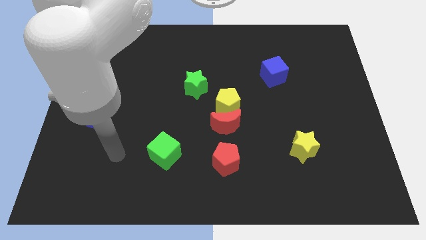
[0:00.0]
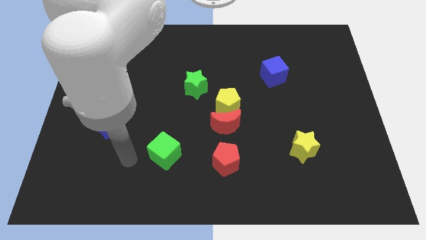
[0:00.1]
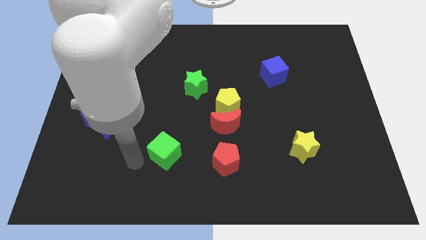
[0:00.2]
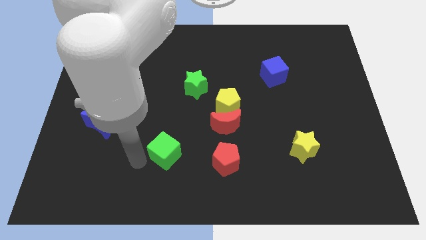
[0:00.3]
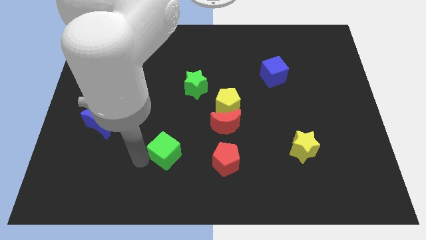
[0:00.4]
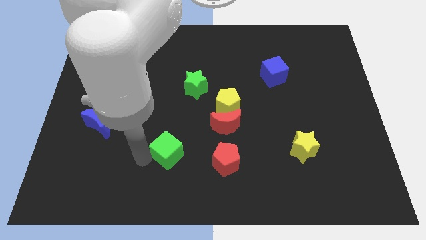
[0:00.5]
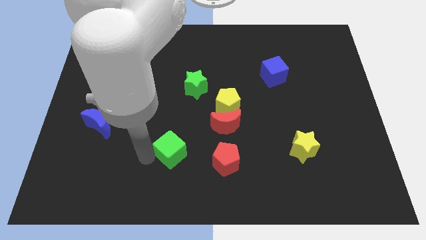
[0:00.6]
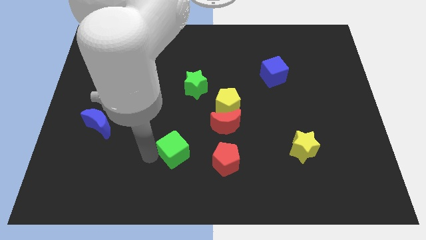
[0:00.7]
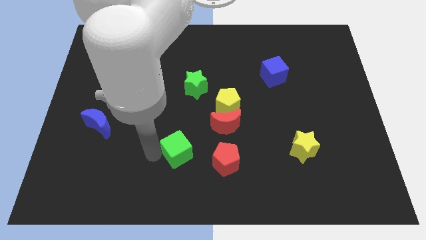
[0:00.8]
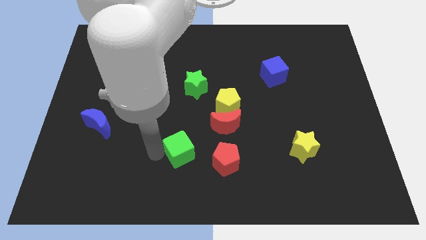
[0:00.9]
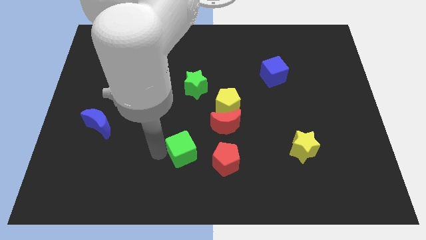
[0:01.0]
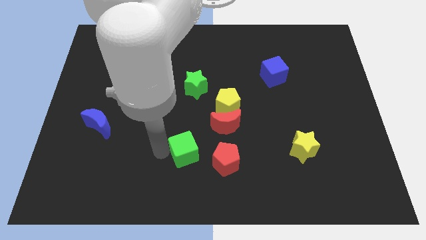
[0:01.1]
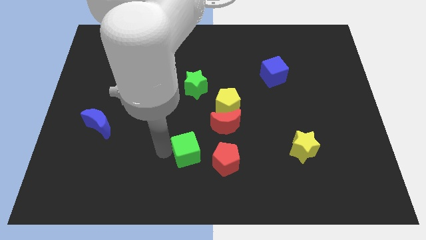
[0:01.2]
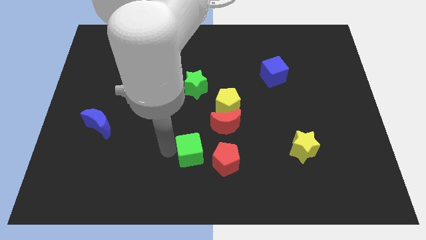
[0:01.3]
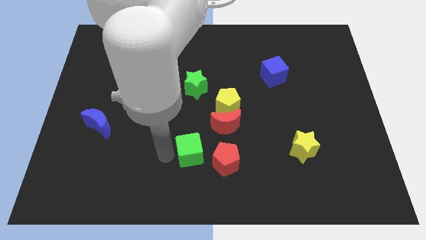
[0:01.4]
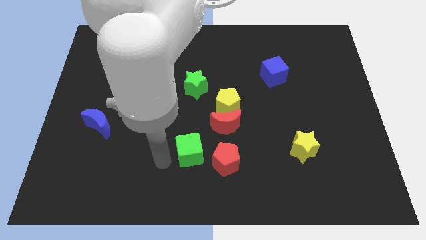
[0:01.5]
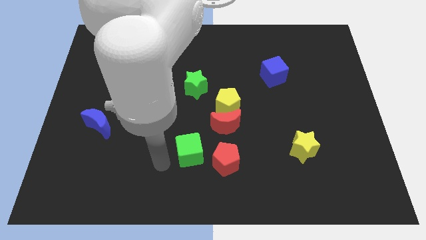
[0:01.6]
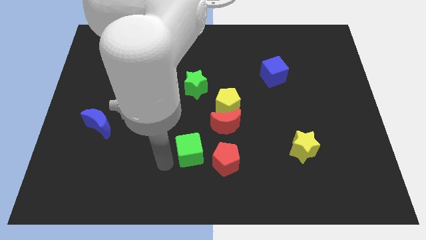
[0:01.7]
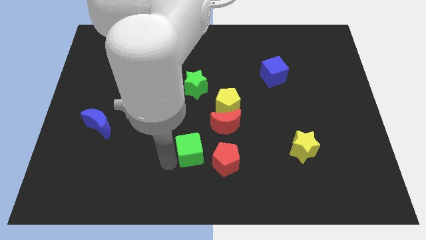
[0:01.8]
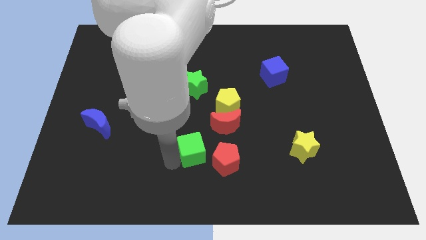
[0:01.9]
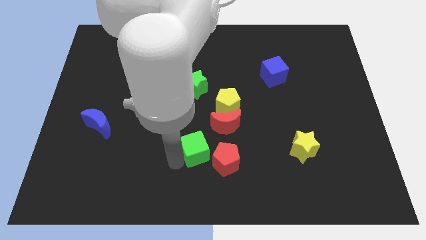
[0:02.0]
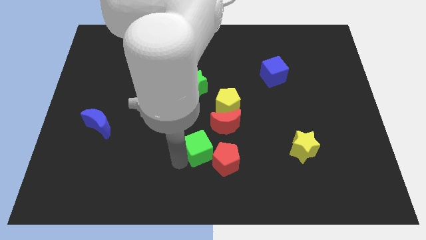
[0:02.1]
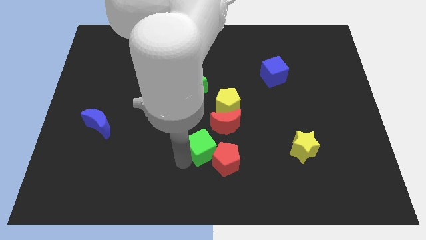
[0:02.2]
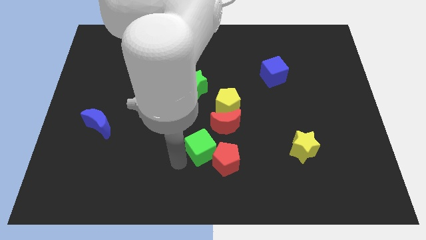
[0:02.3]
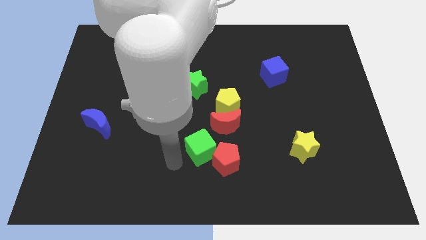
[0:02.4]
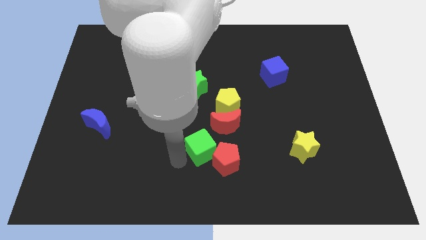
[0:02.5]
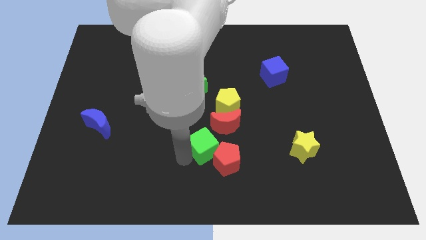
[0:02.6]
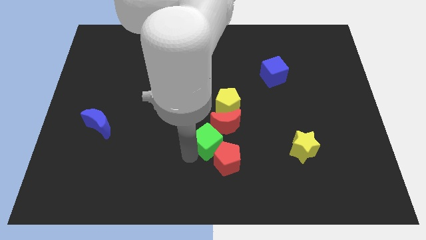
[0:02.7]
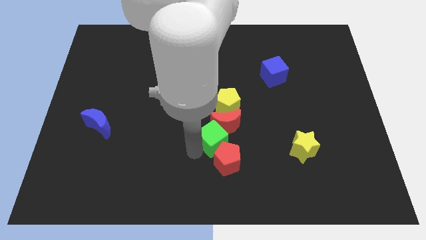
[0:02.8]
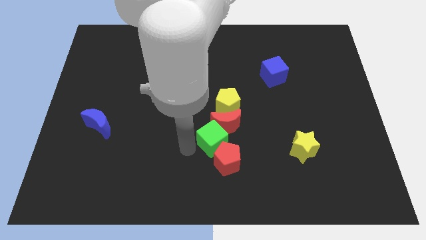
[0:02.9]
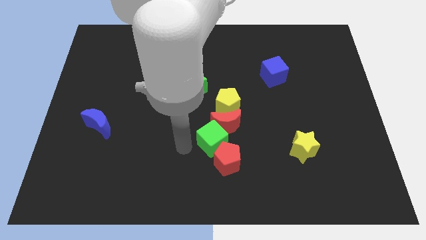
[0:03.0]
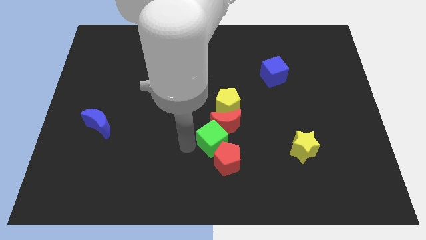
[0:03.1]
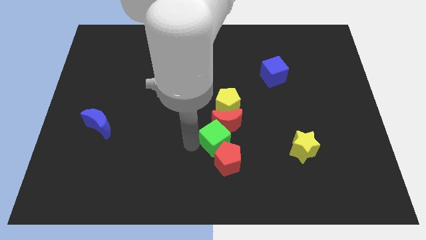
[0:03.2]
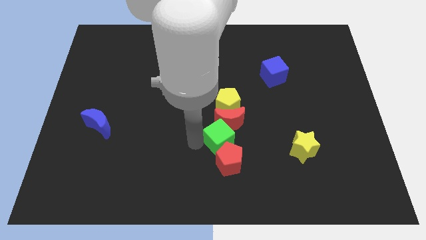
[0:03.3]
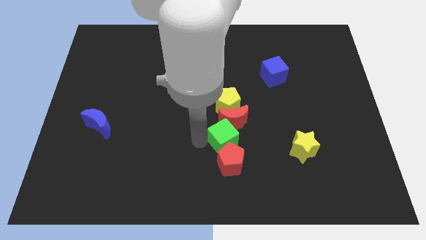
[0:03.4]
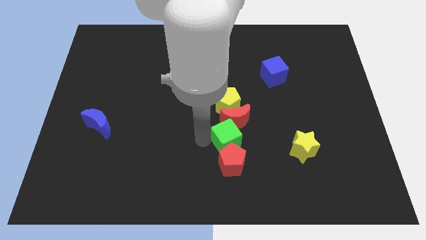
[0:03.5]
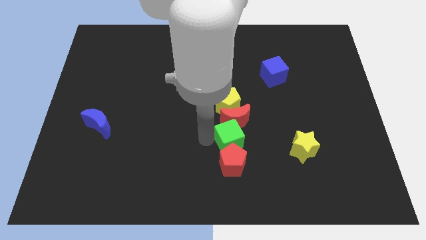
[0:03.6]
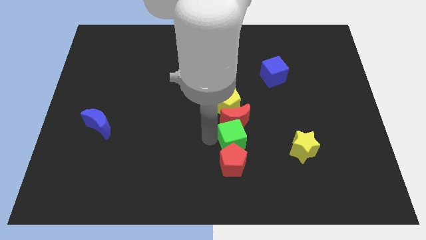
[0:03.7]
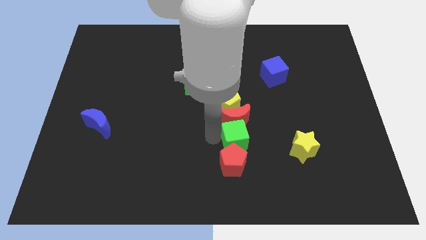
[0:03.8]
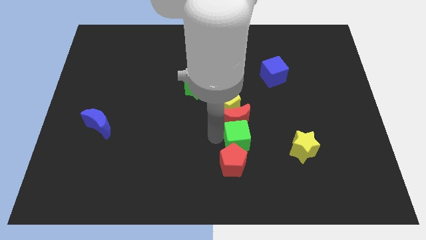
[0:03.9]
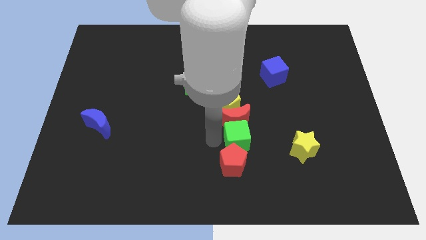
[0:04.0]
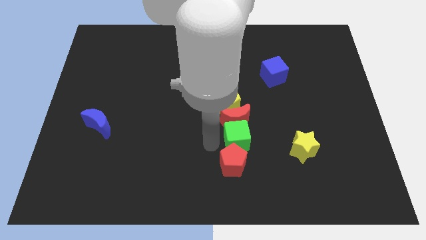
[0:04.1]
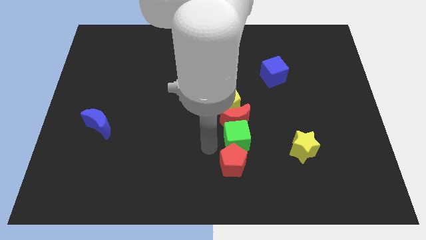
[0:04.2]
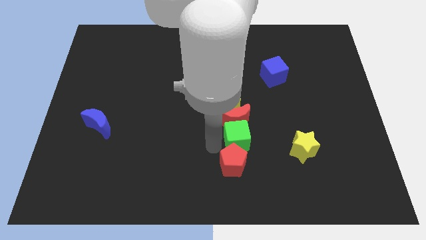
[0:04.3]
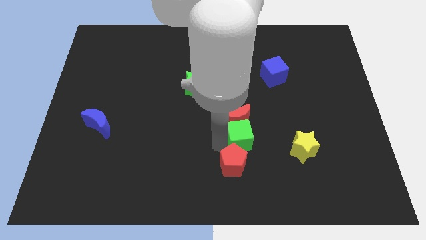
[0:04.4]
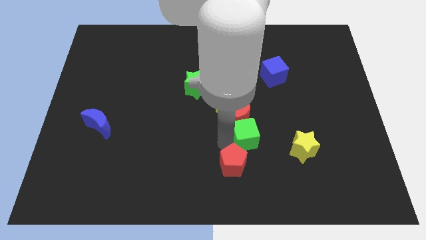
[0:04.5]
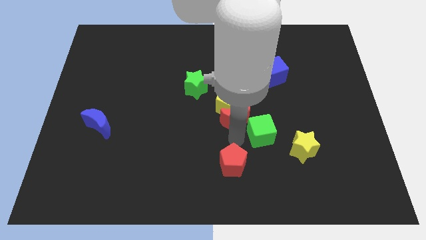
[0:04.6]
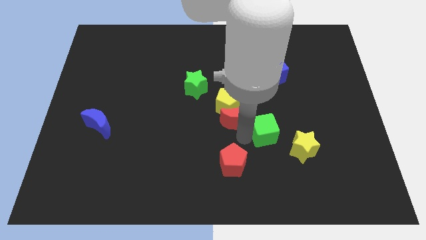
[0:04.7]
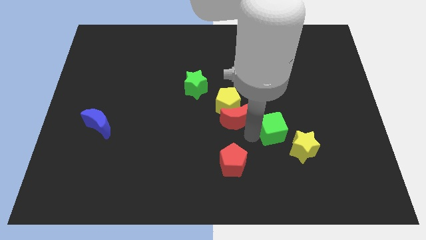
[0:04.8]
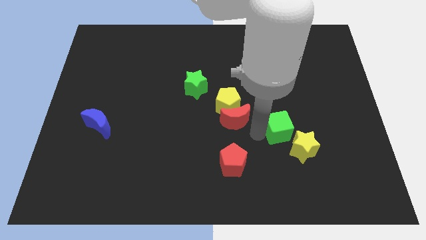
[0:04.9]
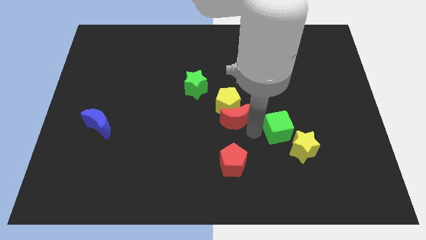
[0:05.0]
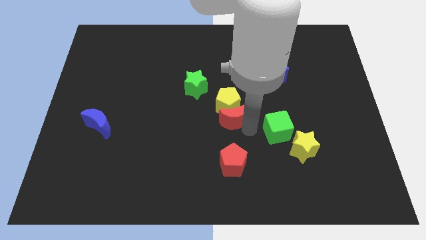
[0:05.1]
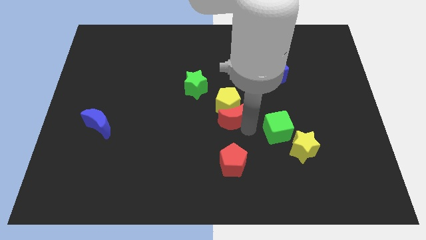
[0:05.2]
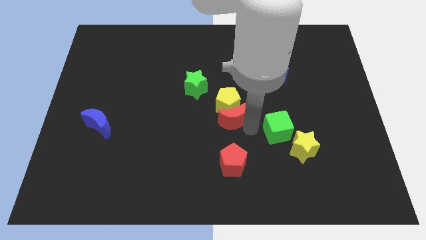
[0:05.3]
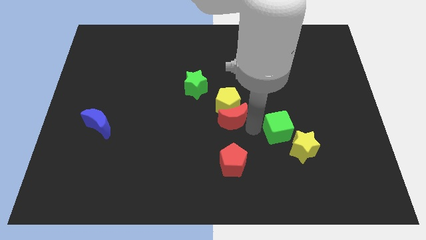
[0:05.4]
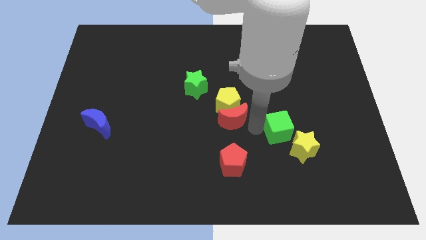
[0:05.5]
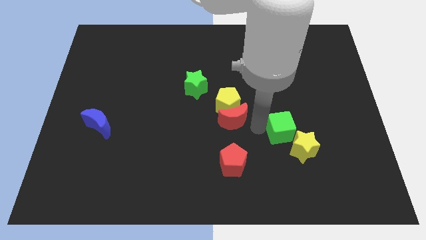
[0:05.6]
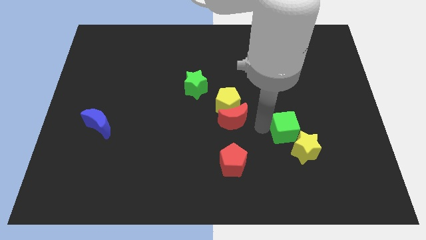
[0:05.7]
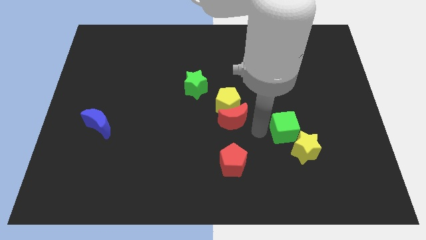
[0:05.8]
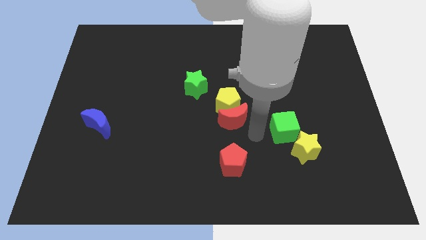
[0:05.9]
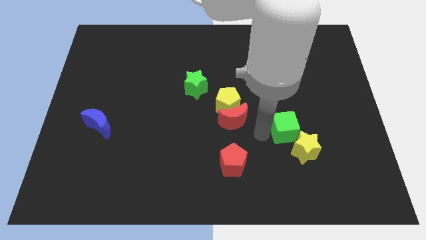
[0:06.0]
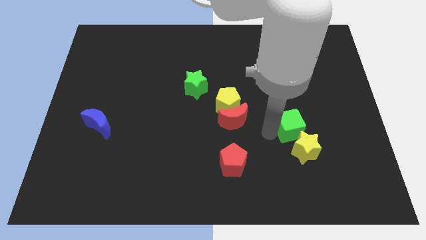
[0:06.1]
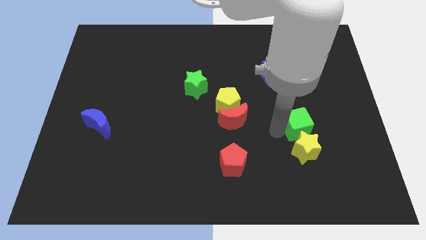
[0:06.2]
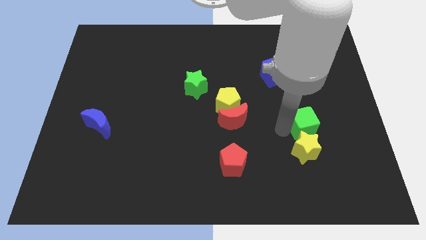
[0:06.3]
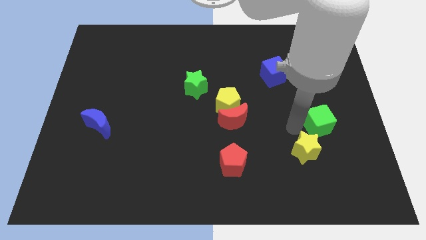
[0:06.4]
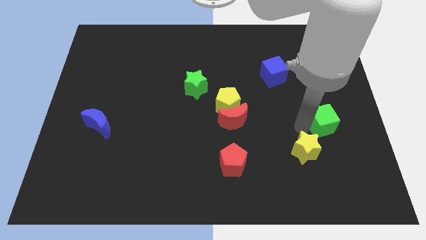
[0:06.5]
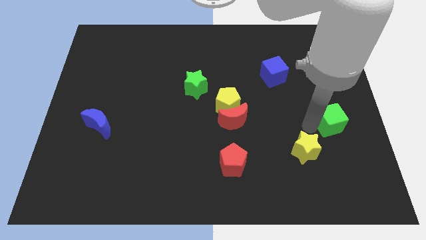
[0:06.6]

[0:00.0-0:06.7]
slide the green cube to the center right
